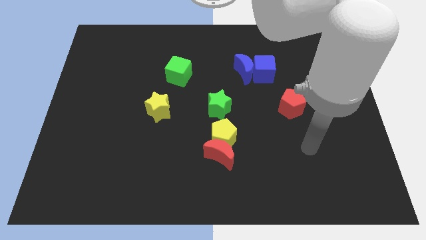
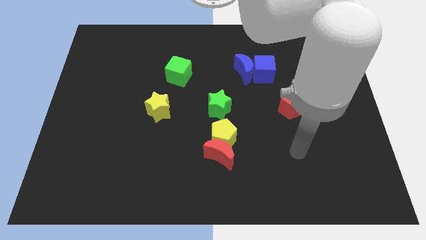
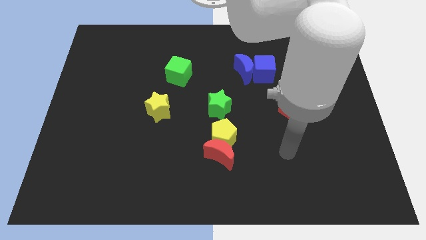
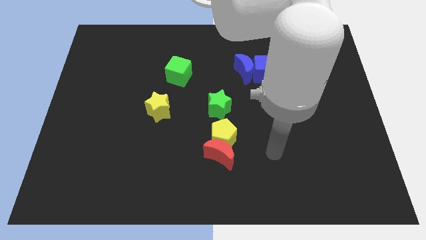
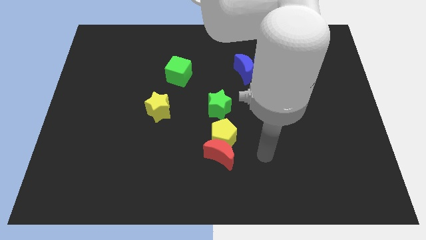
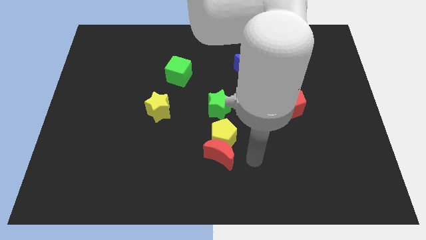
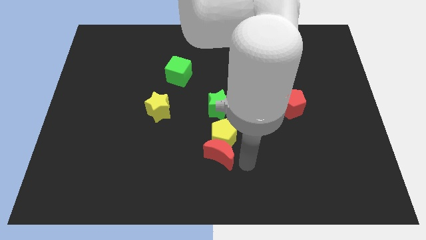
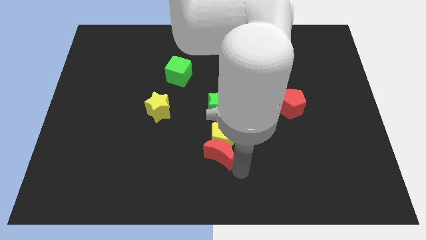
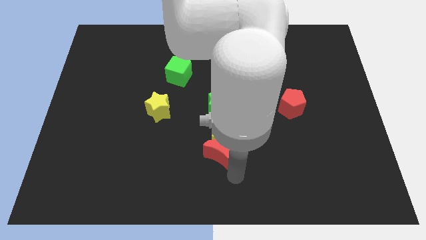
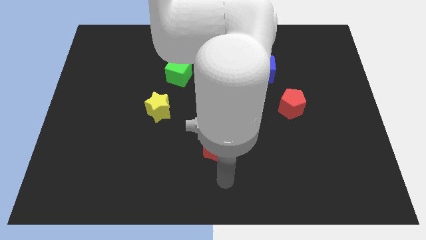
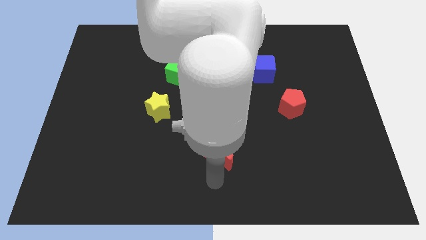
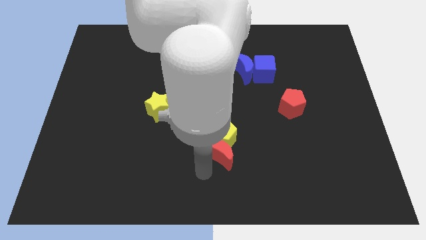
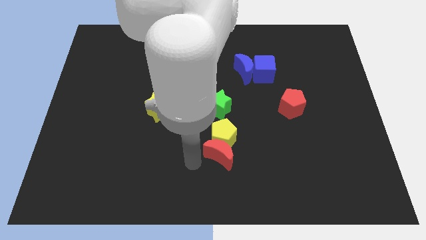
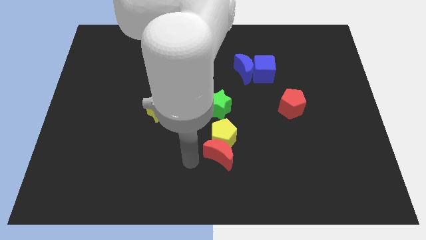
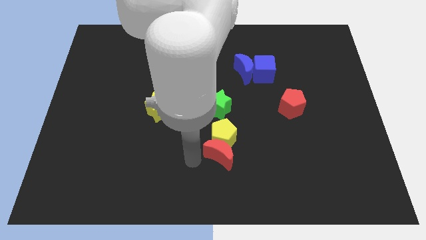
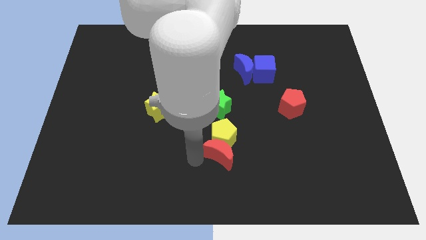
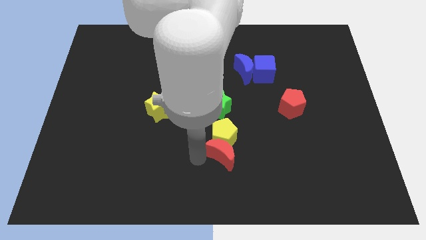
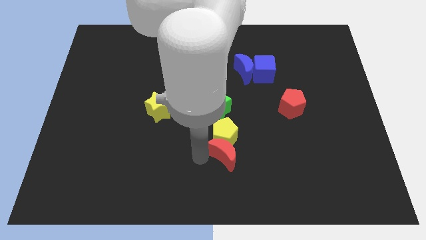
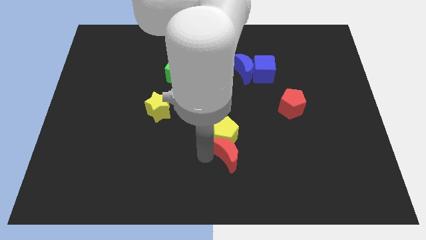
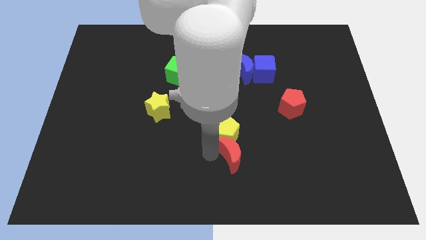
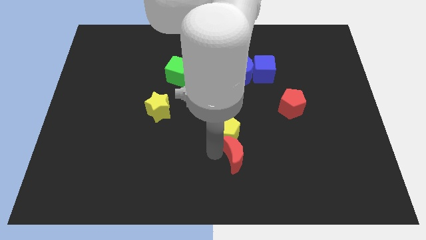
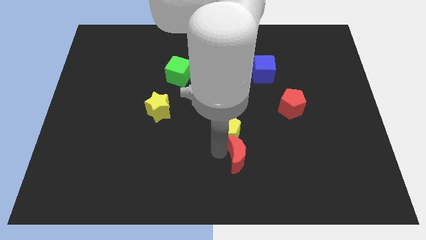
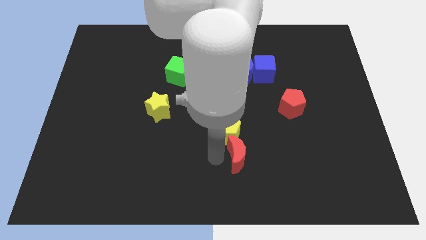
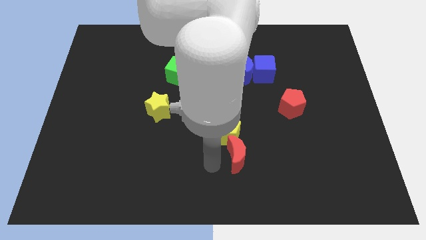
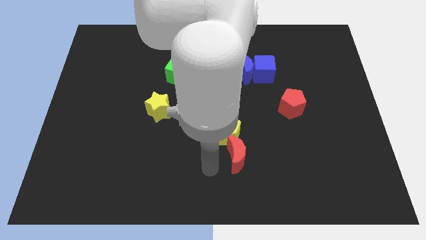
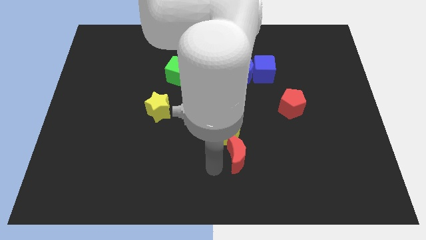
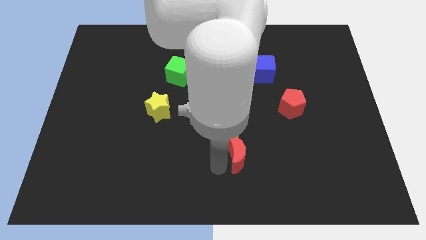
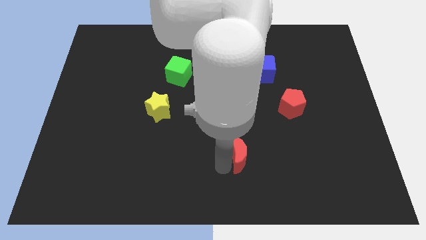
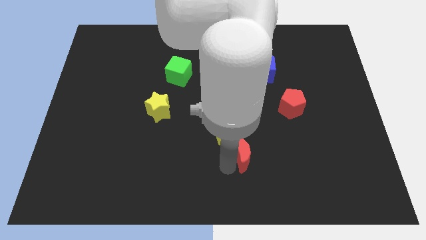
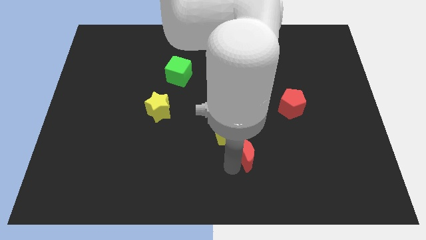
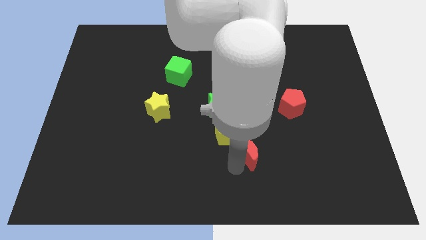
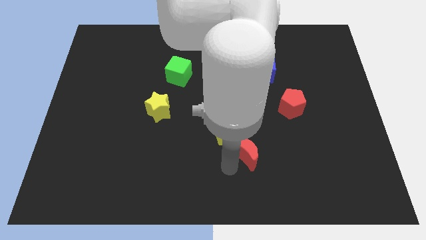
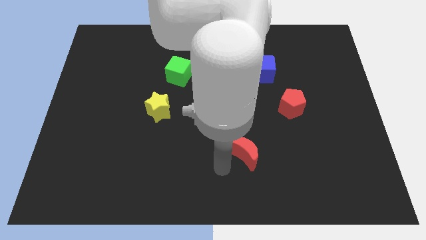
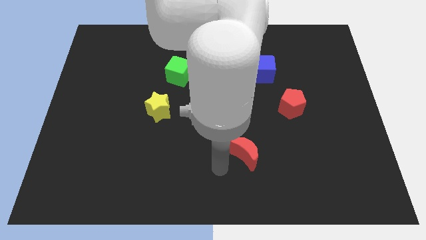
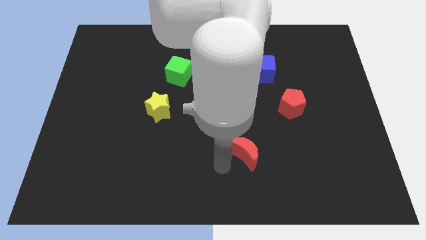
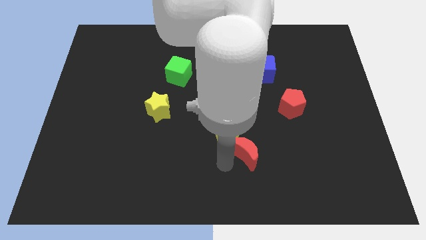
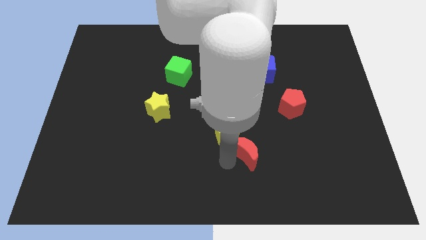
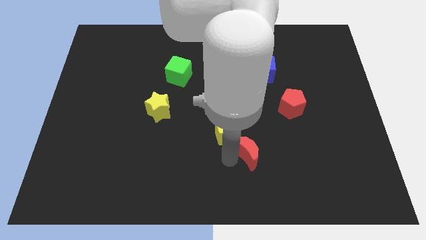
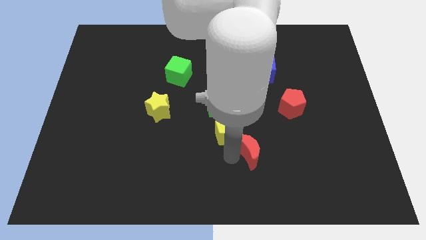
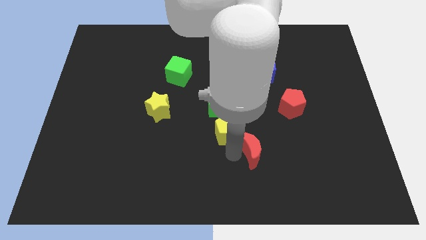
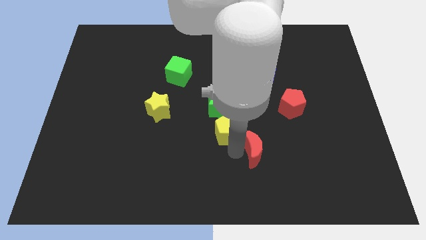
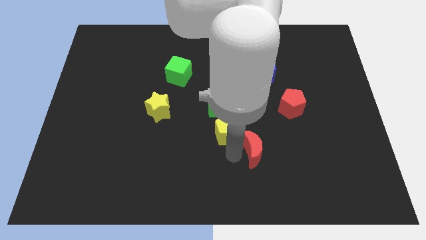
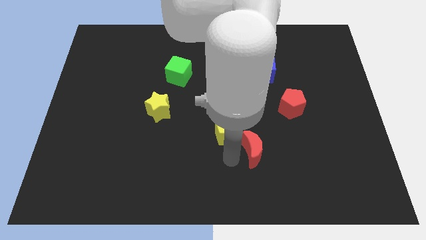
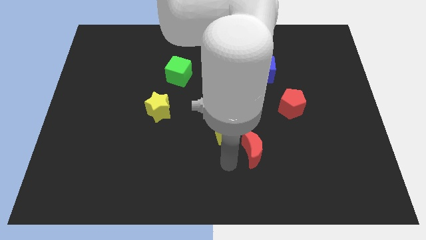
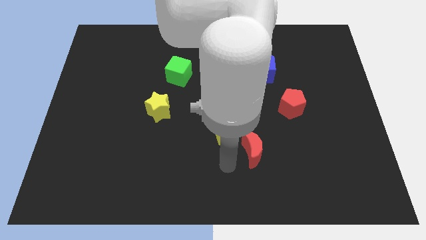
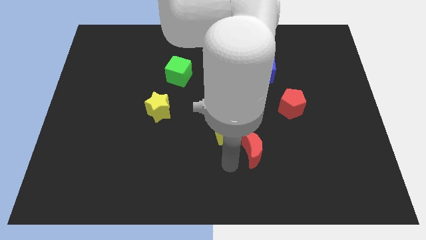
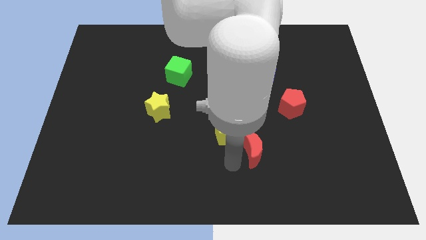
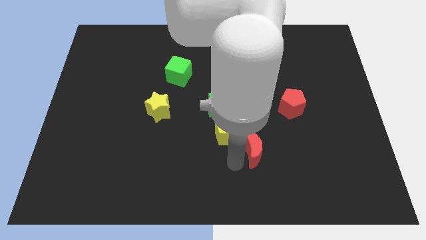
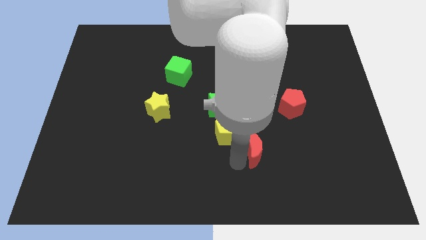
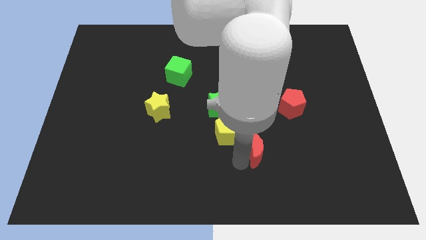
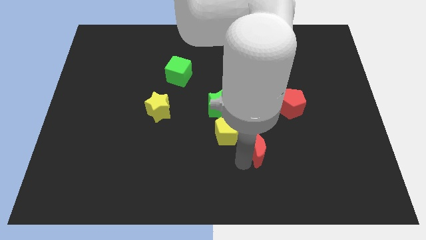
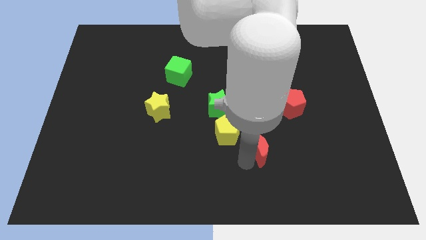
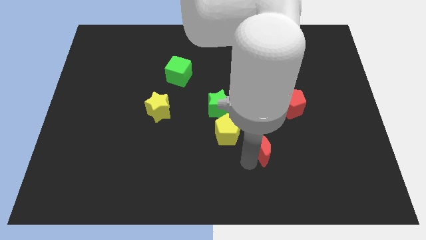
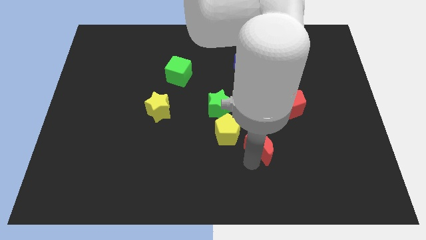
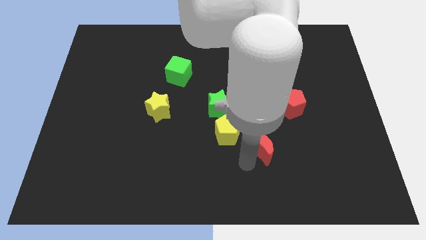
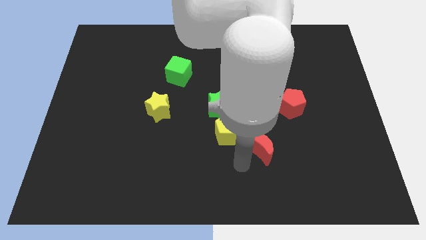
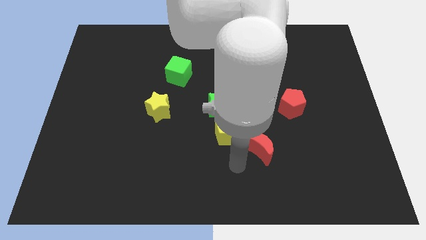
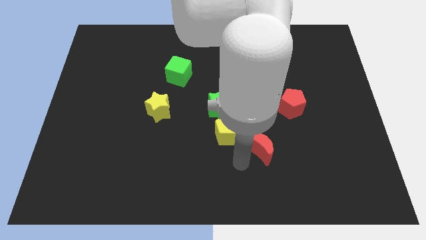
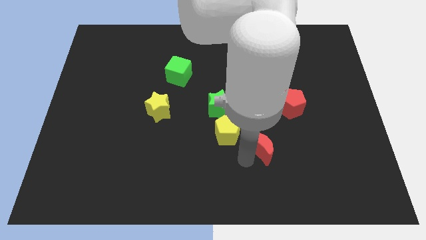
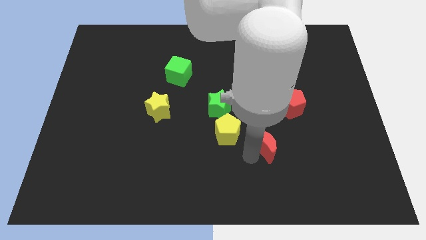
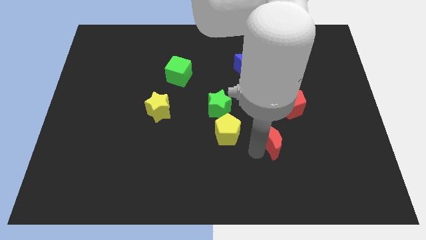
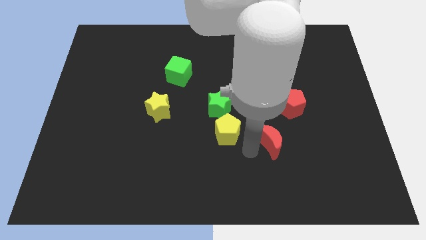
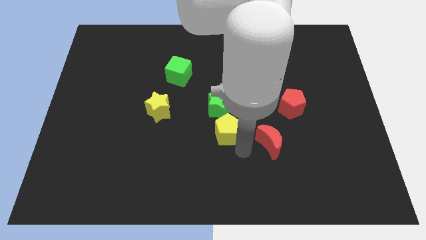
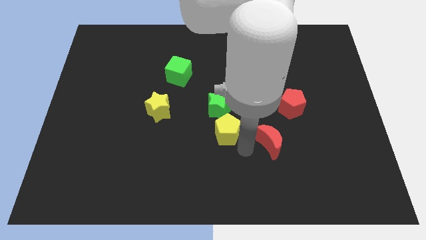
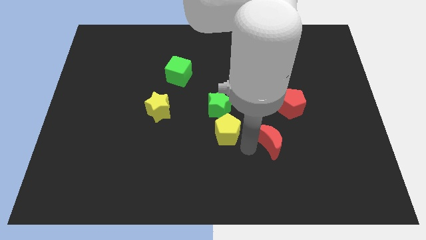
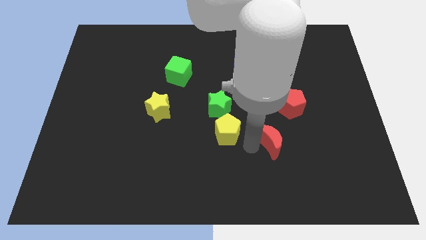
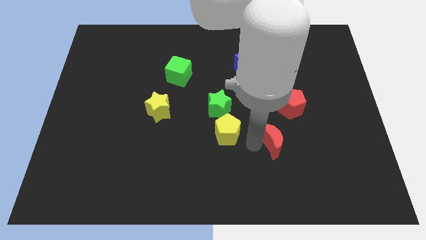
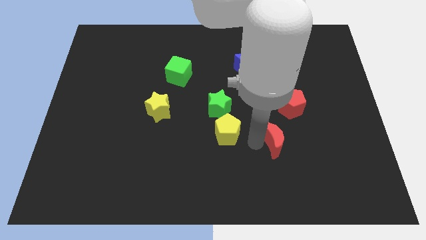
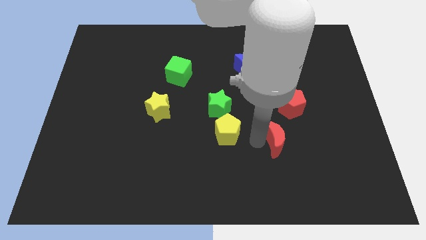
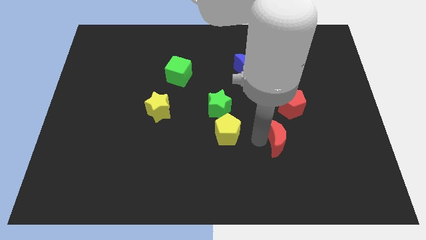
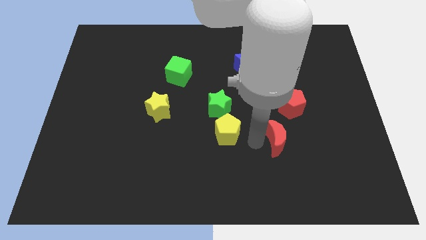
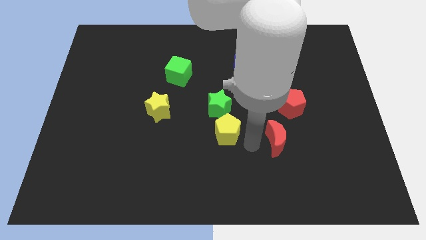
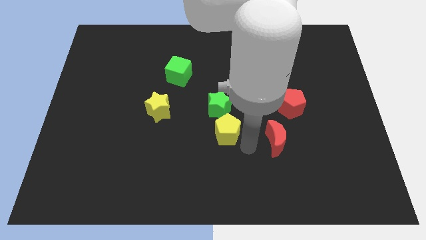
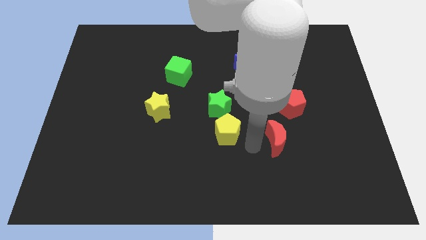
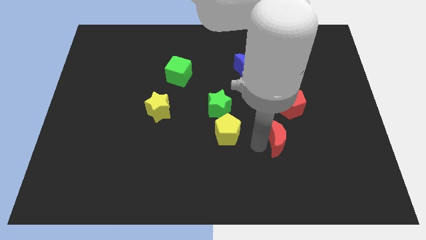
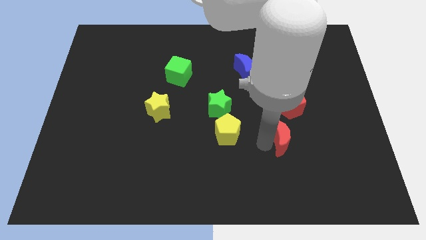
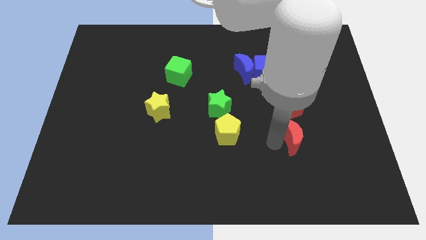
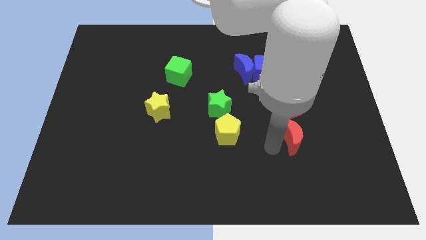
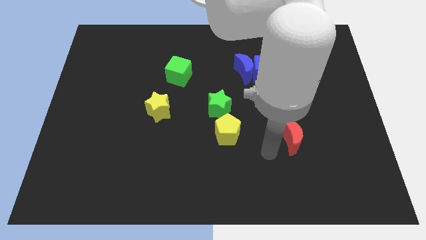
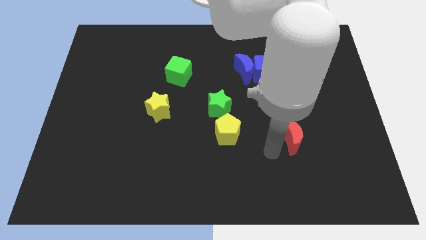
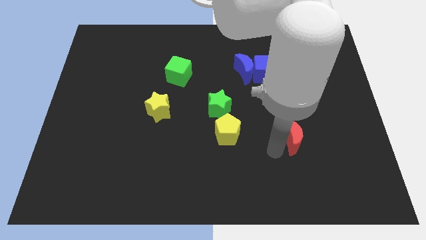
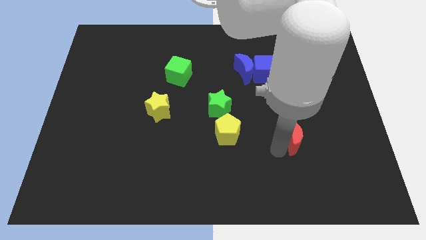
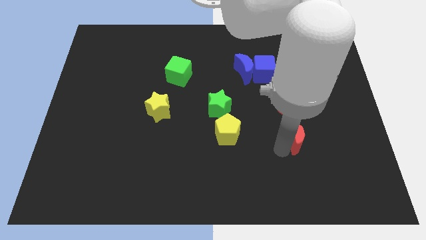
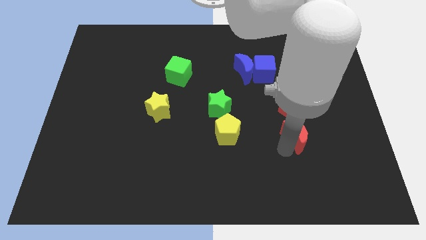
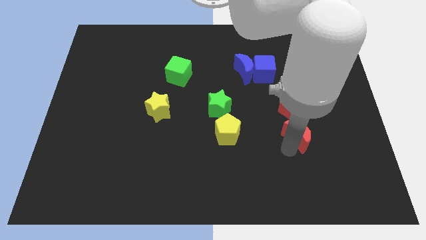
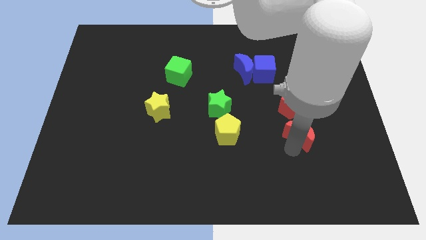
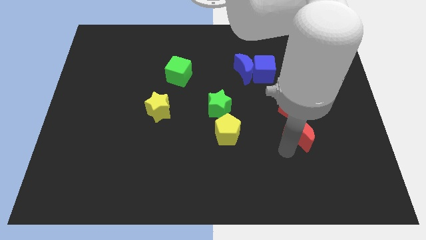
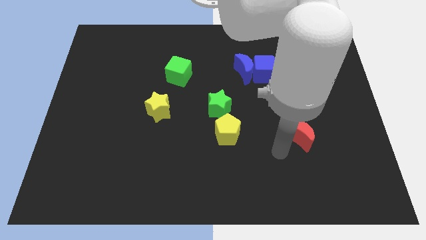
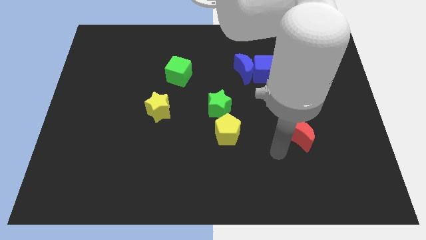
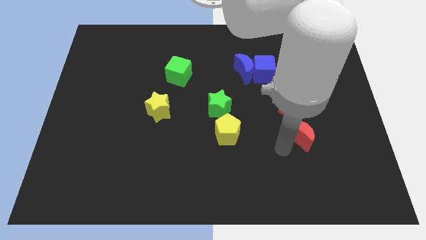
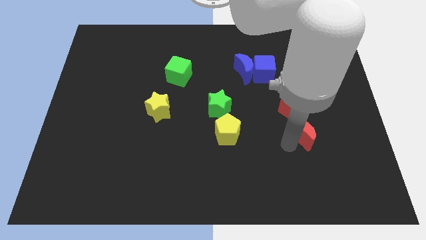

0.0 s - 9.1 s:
slide the red moon to the bottom right side of the red pentagon
